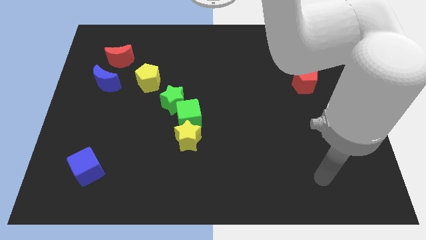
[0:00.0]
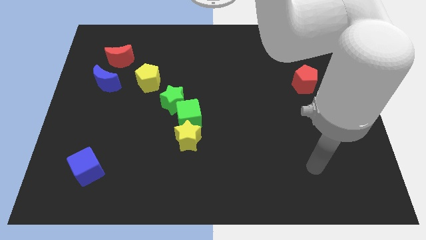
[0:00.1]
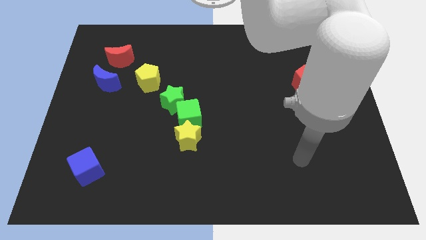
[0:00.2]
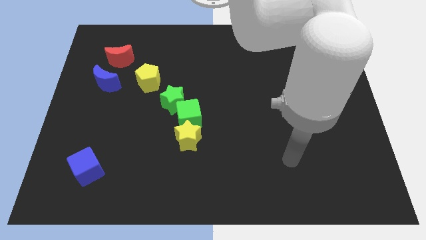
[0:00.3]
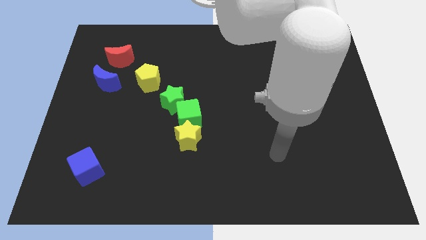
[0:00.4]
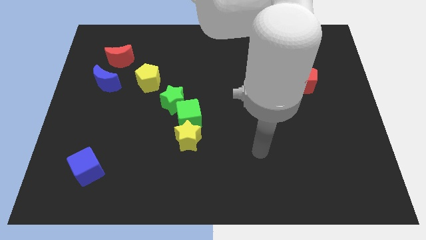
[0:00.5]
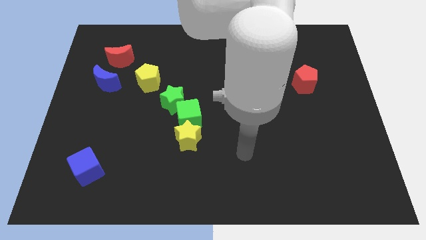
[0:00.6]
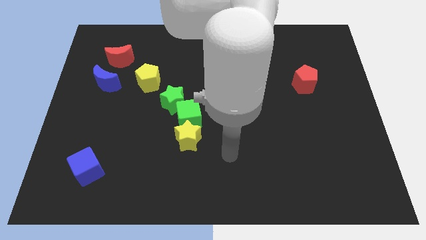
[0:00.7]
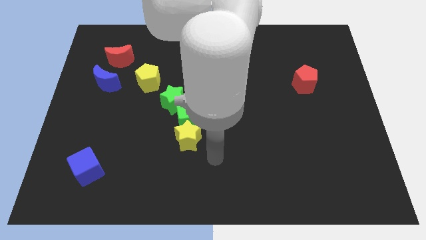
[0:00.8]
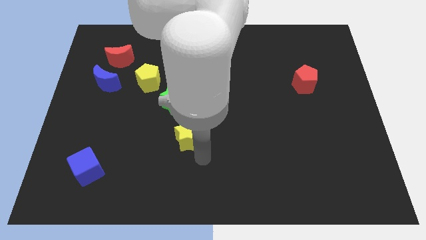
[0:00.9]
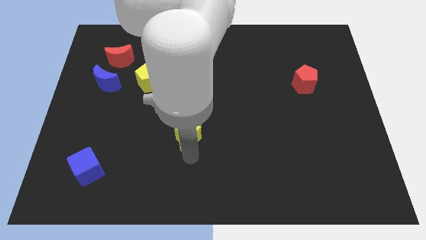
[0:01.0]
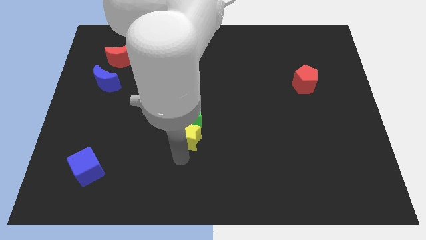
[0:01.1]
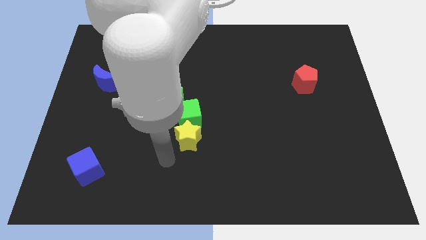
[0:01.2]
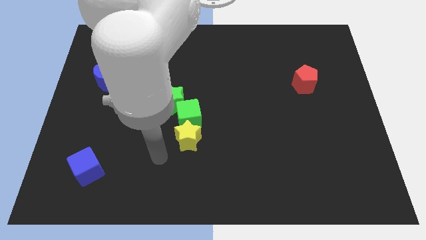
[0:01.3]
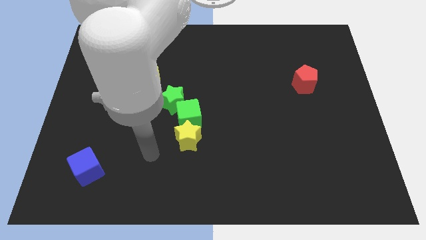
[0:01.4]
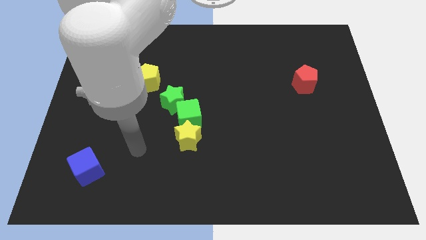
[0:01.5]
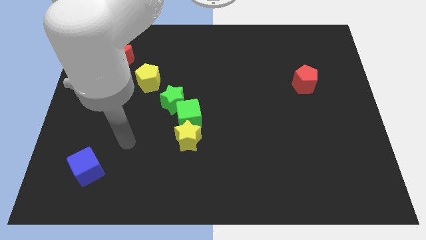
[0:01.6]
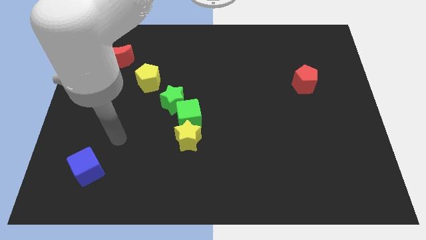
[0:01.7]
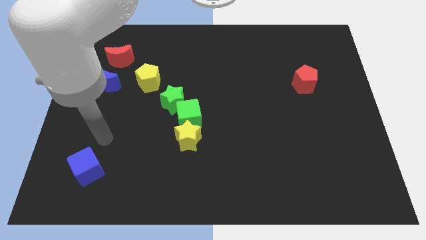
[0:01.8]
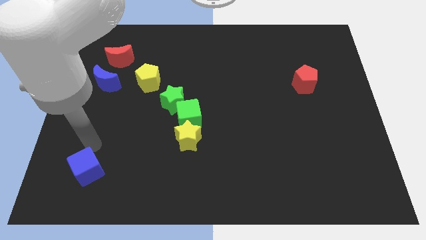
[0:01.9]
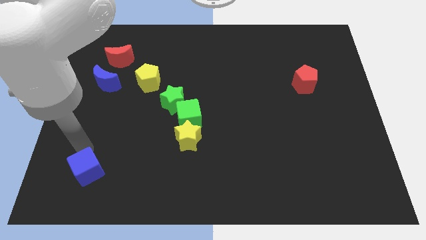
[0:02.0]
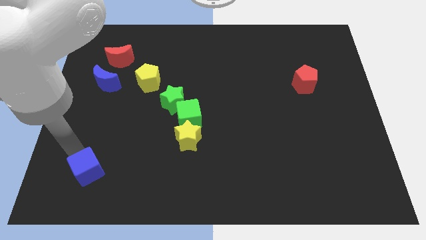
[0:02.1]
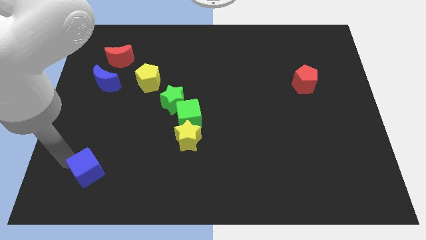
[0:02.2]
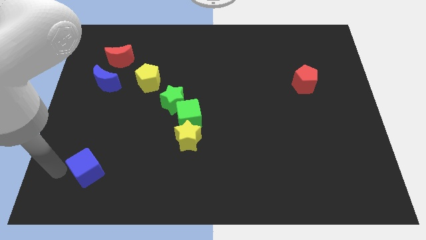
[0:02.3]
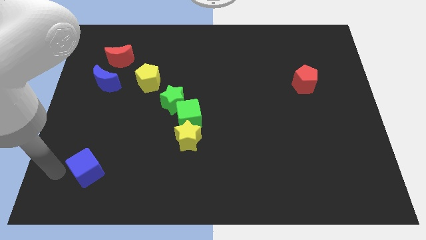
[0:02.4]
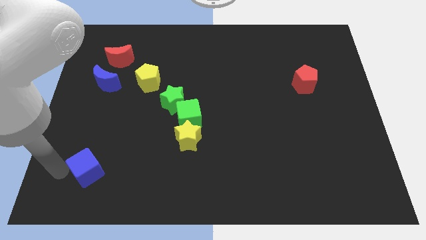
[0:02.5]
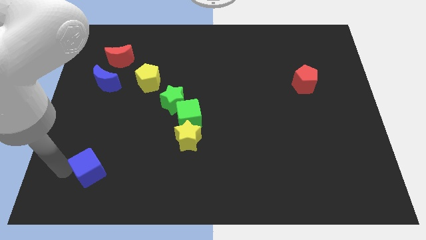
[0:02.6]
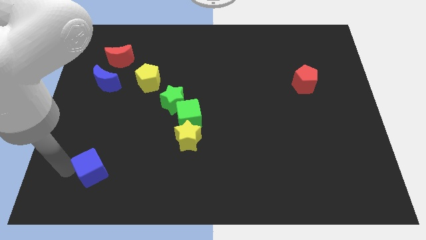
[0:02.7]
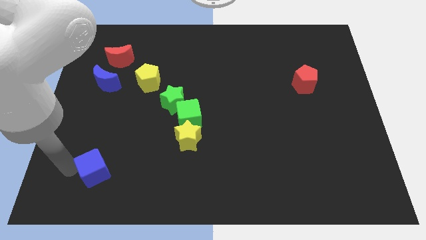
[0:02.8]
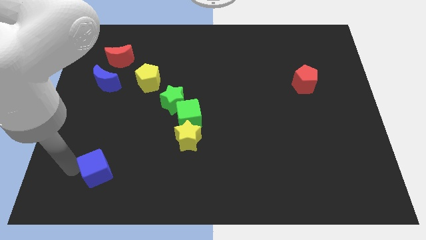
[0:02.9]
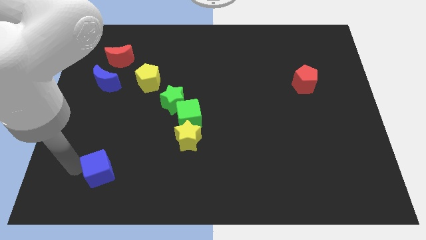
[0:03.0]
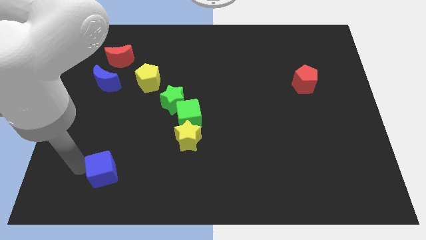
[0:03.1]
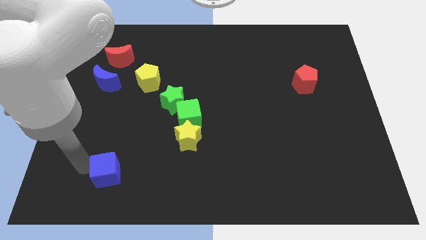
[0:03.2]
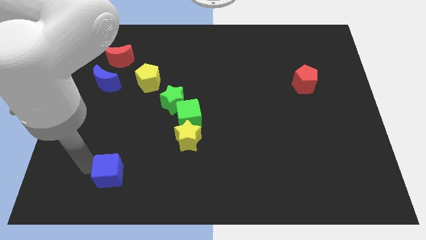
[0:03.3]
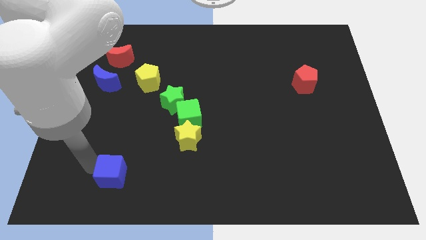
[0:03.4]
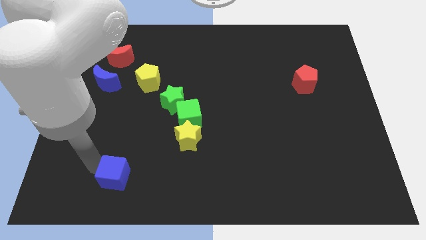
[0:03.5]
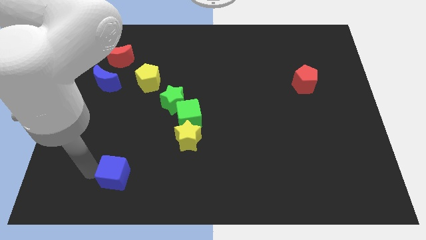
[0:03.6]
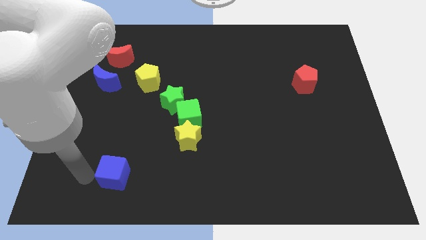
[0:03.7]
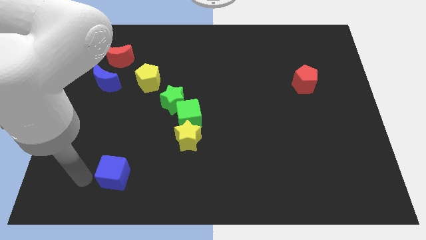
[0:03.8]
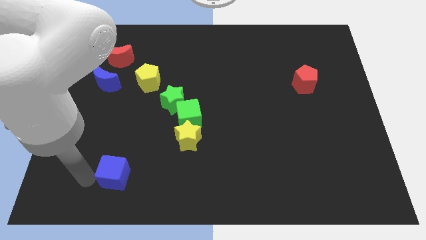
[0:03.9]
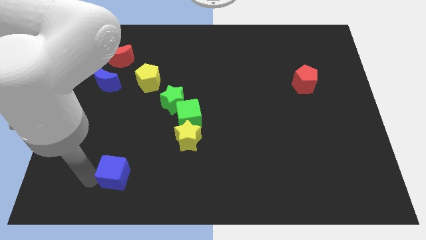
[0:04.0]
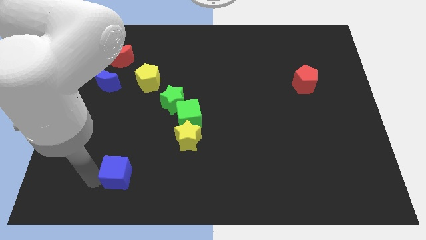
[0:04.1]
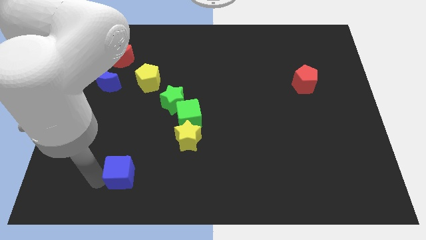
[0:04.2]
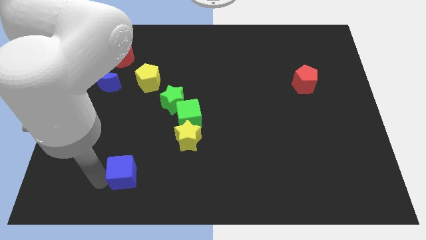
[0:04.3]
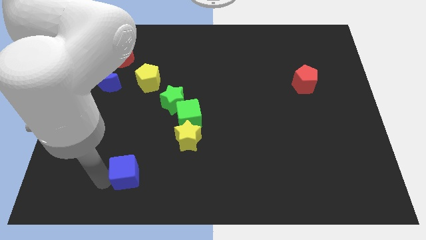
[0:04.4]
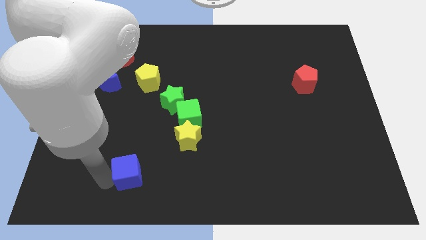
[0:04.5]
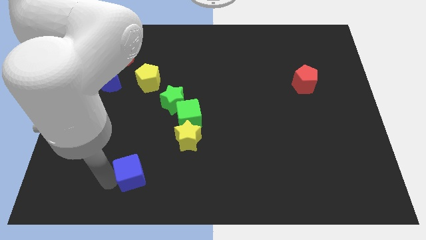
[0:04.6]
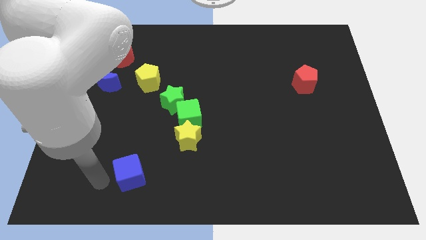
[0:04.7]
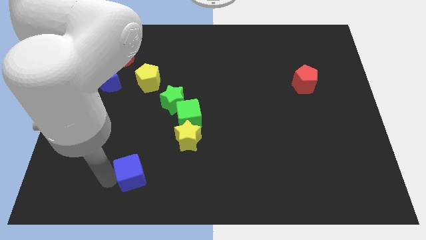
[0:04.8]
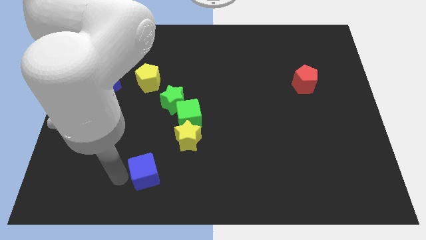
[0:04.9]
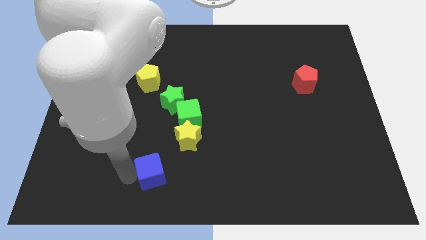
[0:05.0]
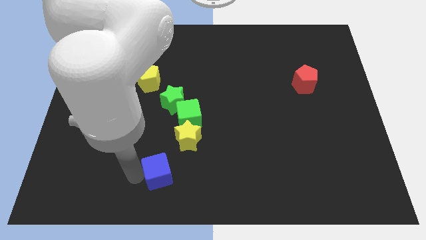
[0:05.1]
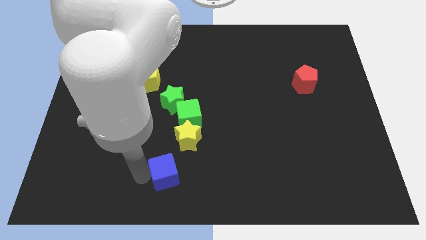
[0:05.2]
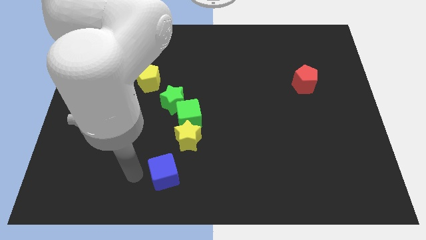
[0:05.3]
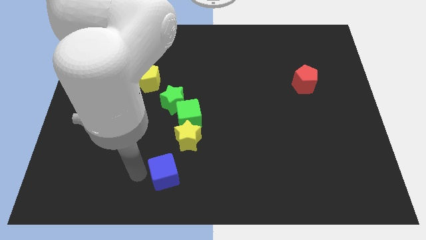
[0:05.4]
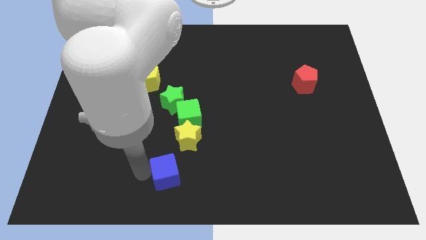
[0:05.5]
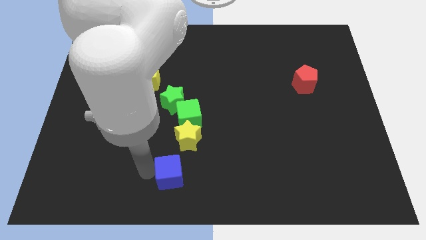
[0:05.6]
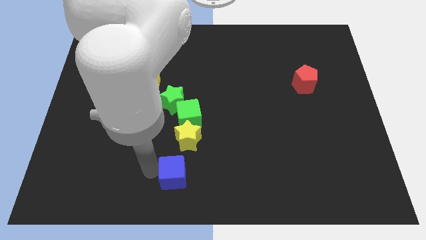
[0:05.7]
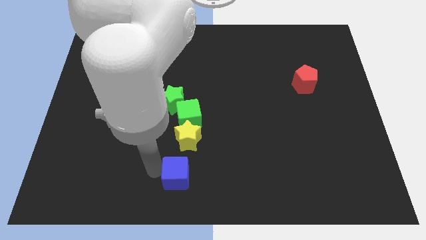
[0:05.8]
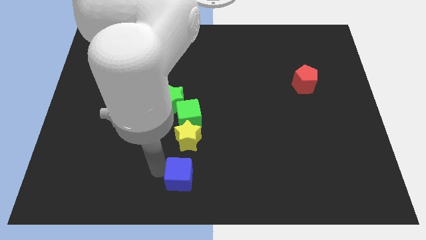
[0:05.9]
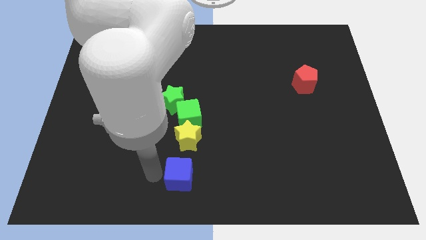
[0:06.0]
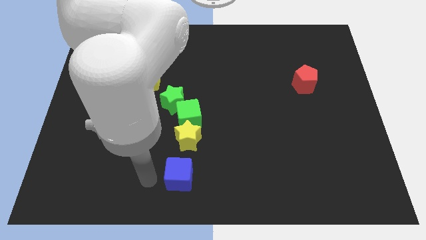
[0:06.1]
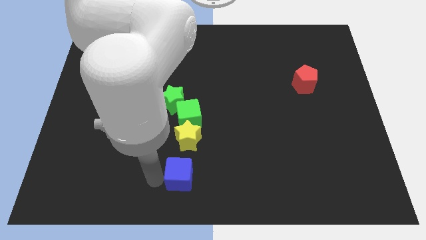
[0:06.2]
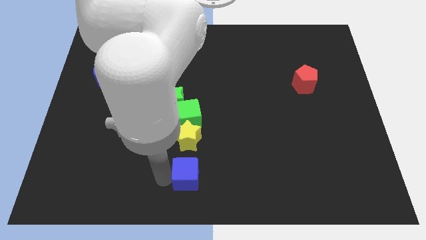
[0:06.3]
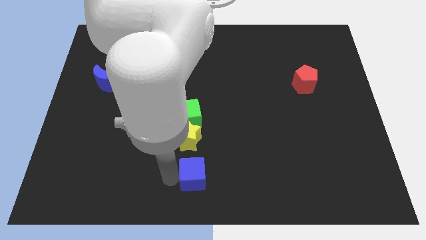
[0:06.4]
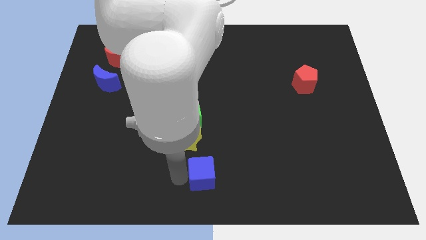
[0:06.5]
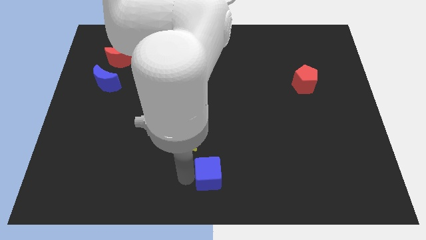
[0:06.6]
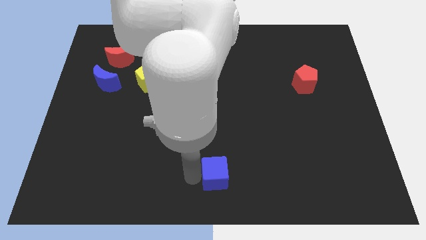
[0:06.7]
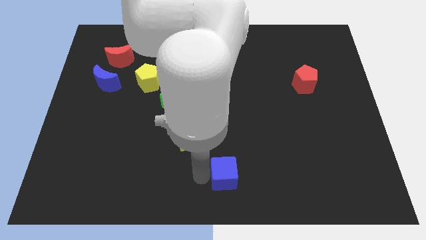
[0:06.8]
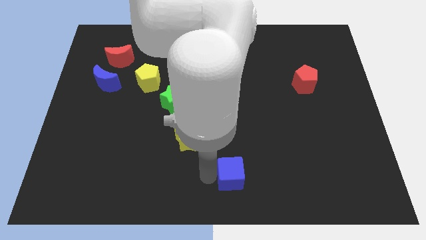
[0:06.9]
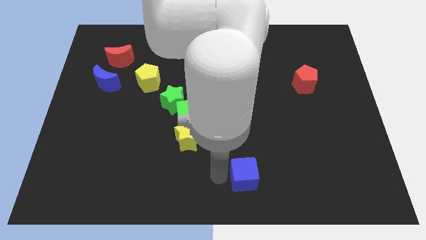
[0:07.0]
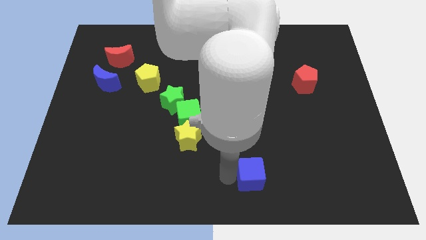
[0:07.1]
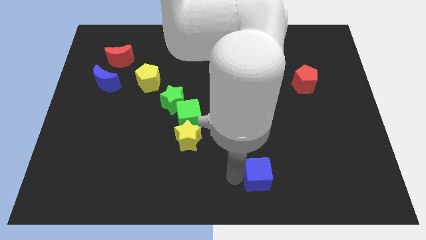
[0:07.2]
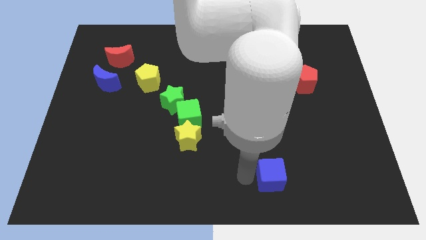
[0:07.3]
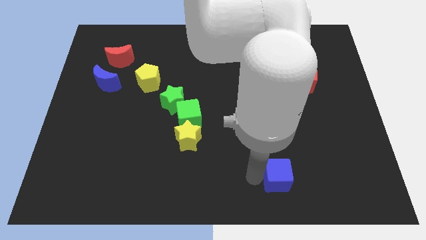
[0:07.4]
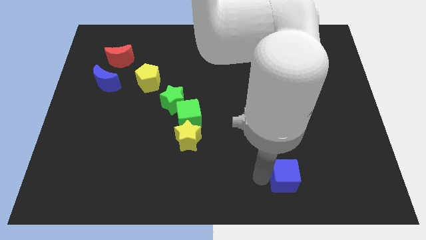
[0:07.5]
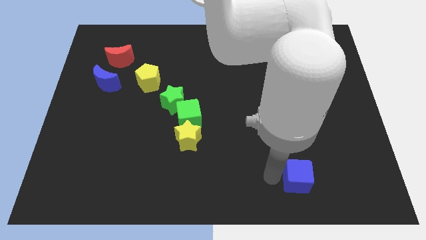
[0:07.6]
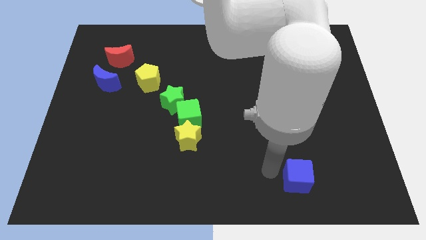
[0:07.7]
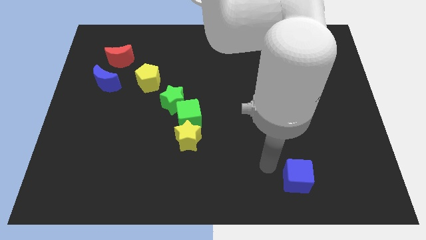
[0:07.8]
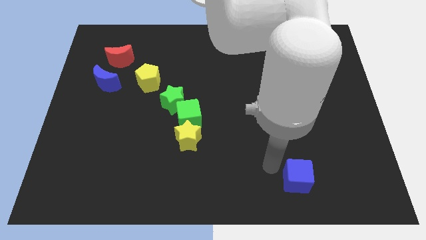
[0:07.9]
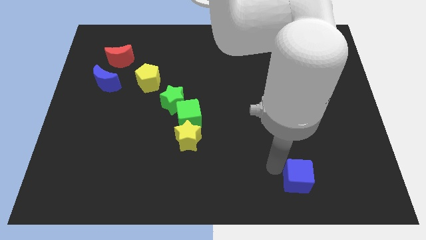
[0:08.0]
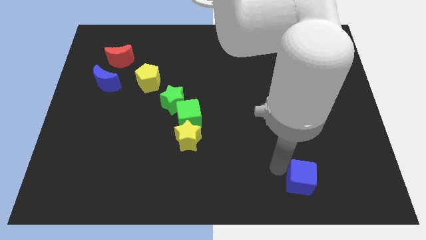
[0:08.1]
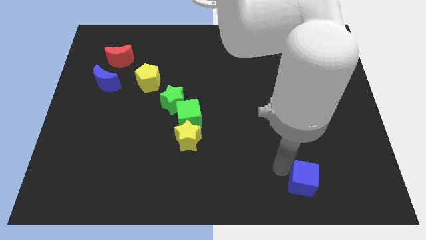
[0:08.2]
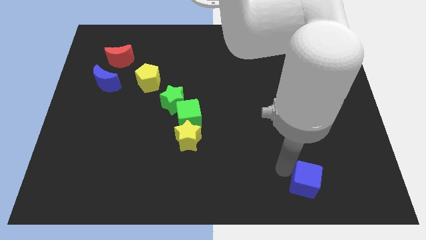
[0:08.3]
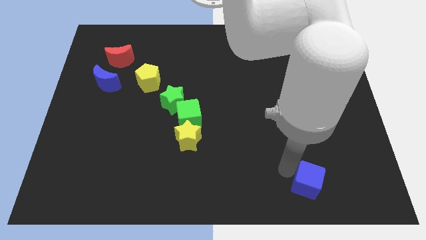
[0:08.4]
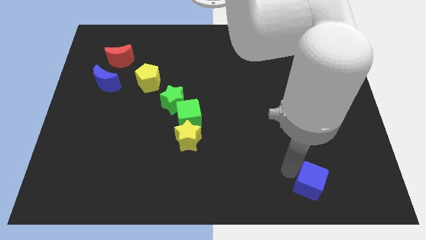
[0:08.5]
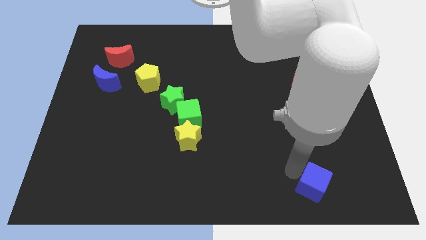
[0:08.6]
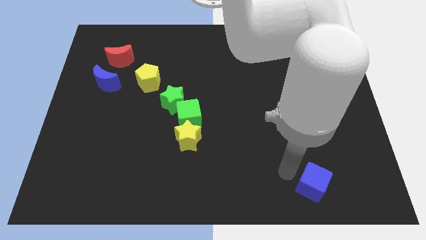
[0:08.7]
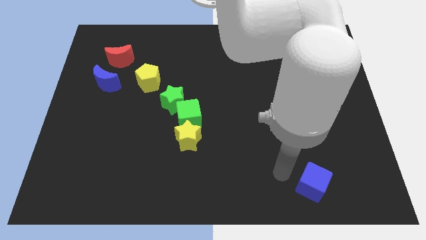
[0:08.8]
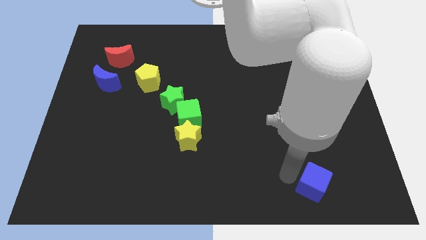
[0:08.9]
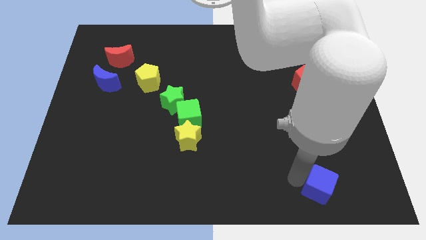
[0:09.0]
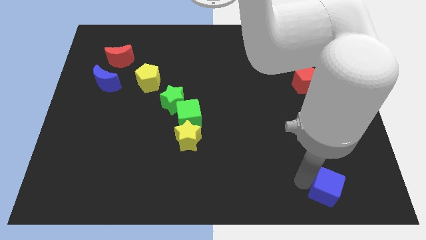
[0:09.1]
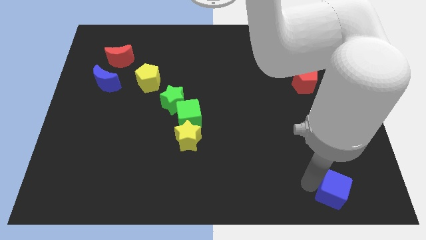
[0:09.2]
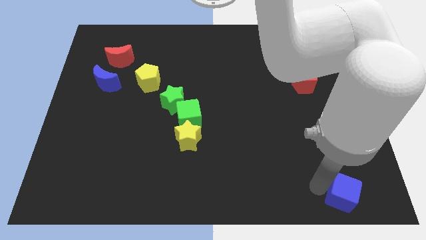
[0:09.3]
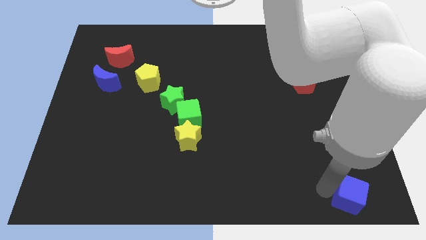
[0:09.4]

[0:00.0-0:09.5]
push the blue cube to the bottom right of the board
